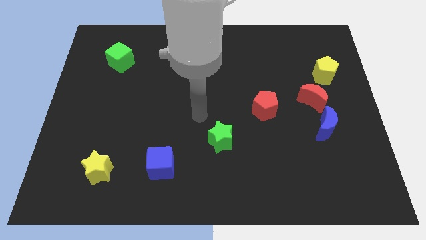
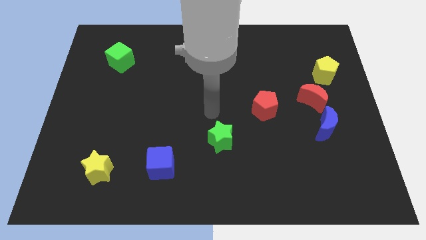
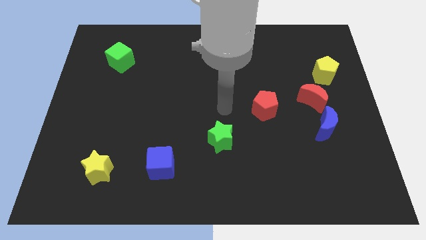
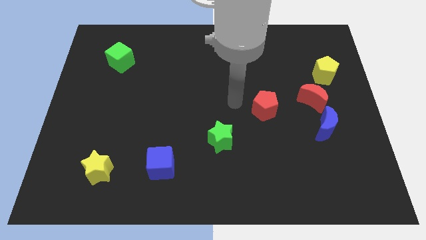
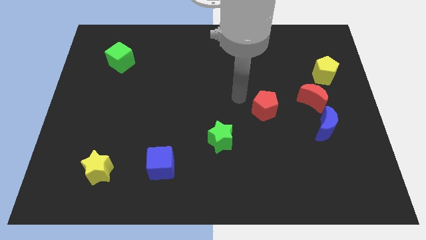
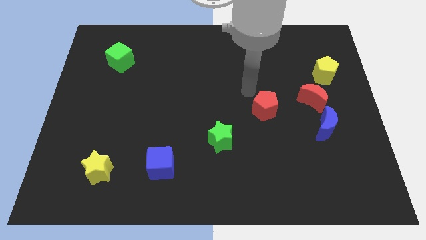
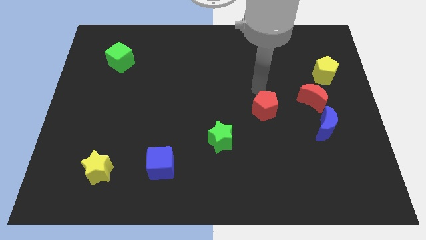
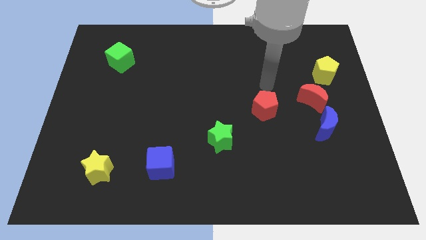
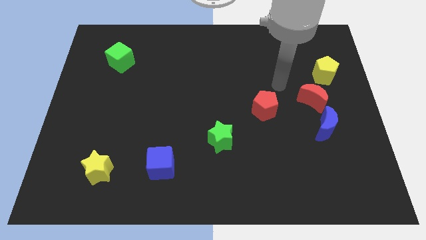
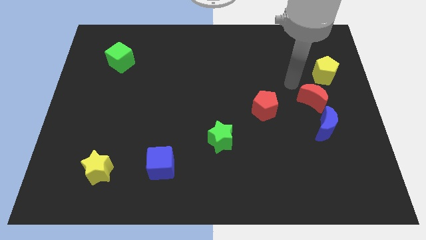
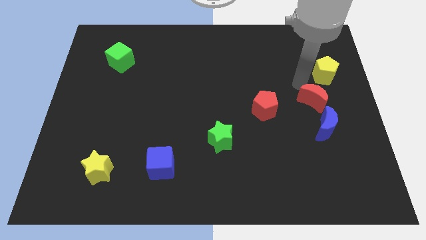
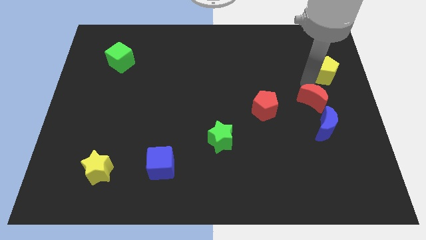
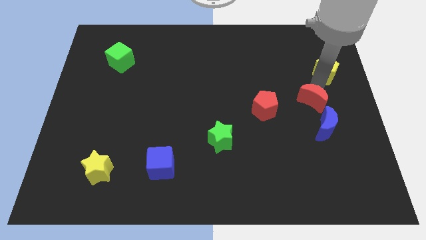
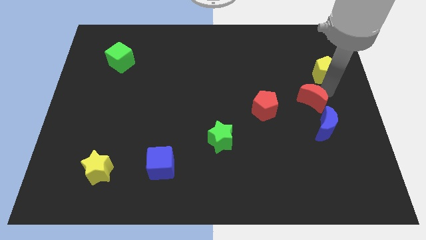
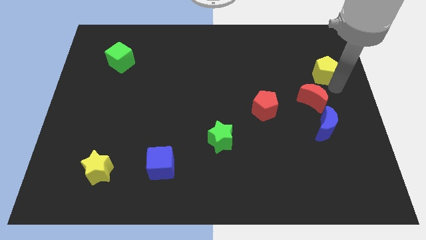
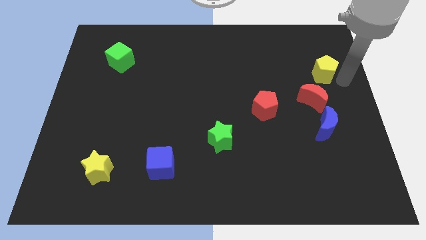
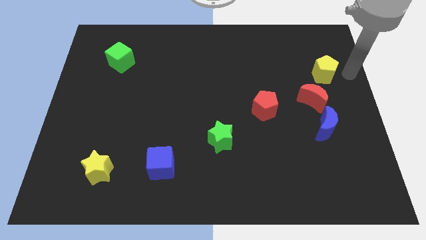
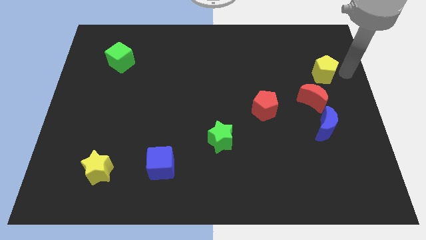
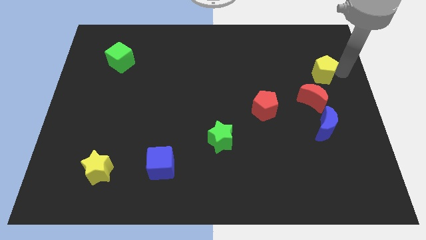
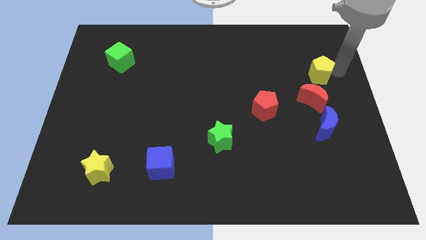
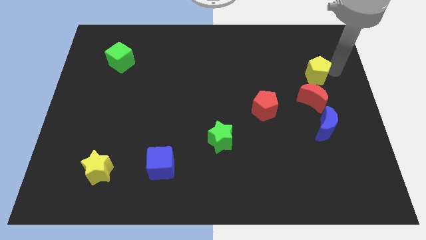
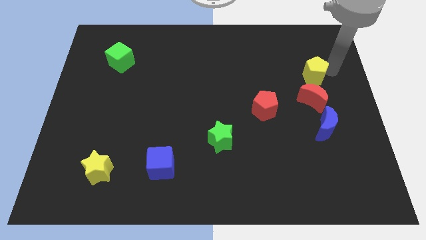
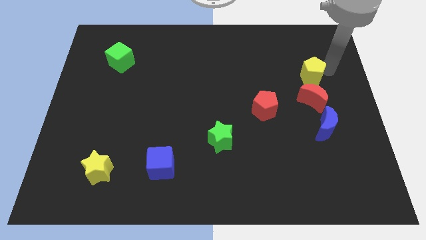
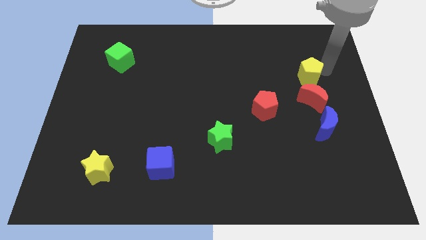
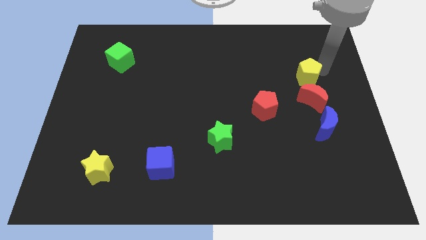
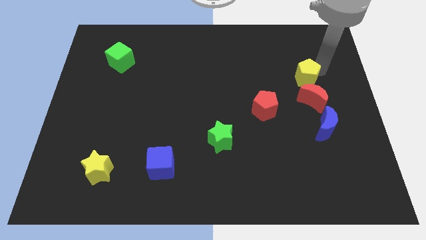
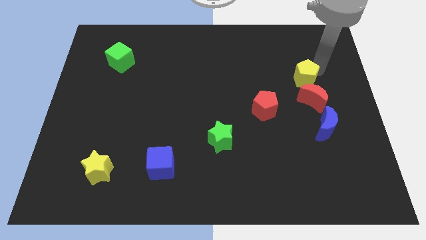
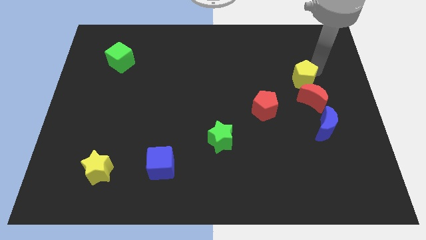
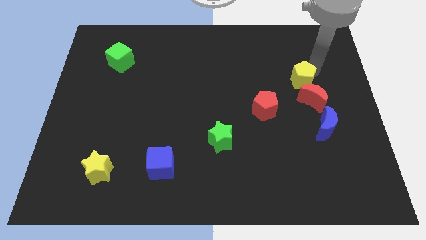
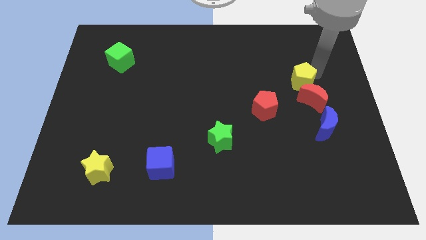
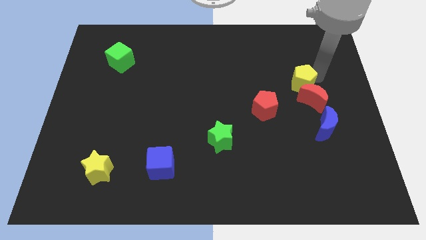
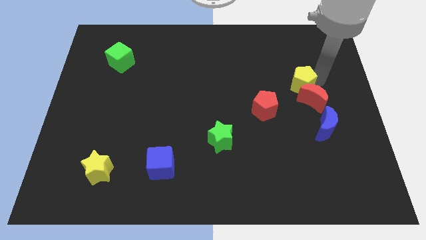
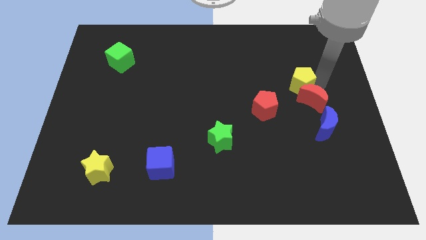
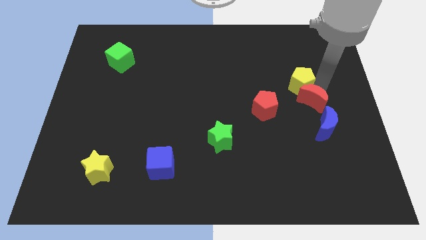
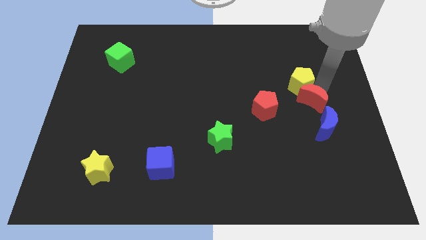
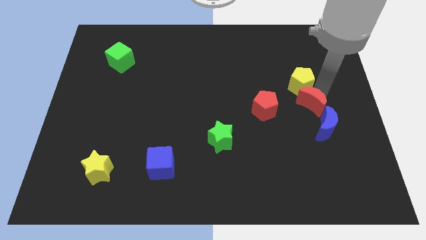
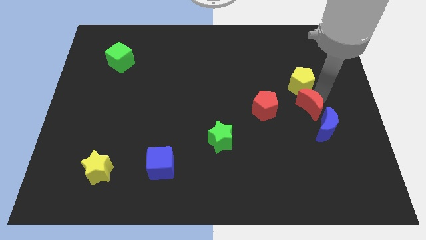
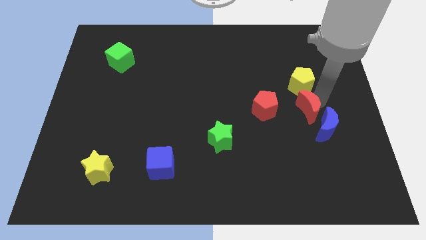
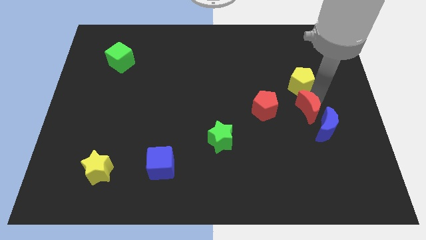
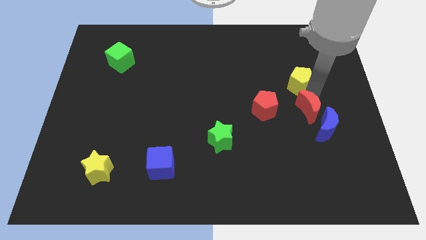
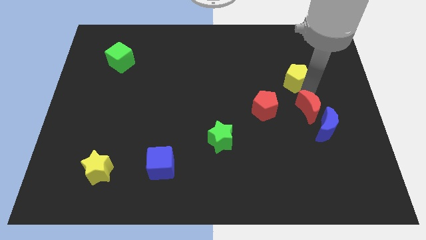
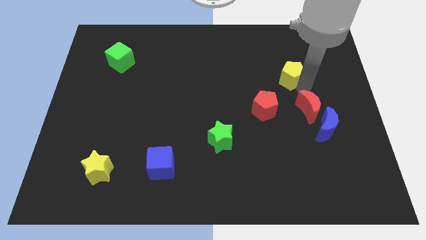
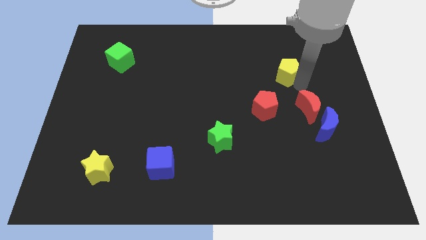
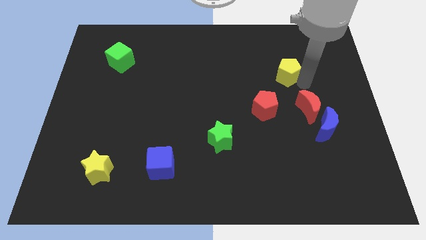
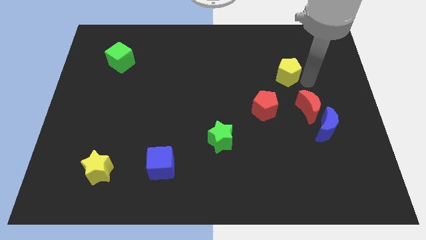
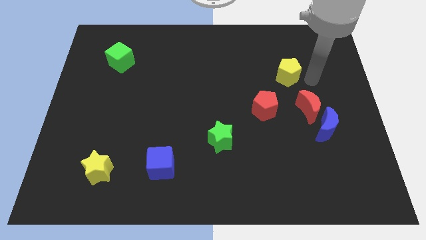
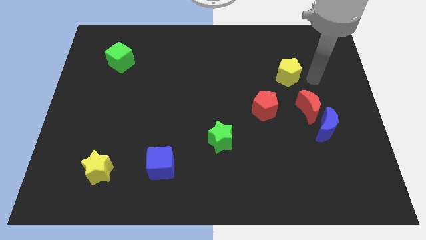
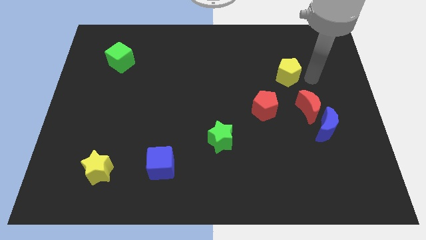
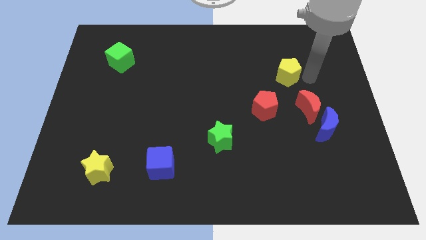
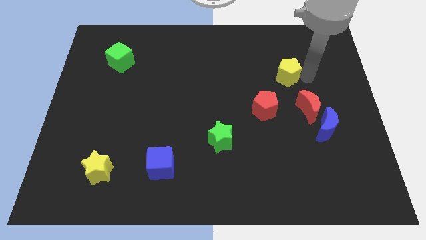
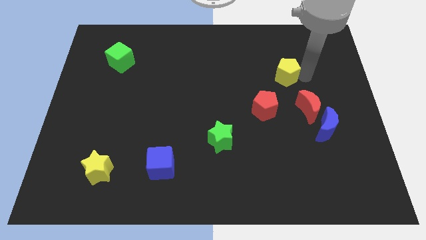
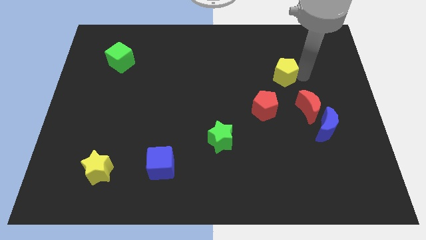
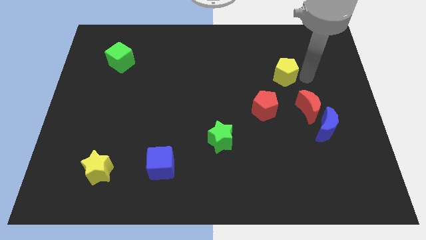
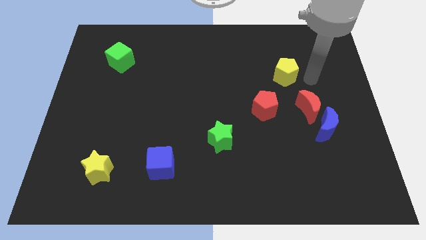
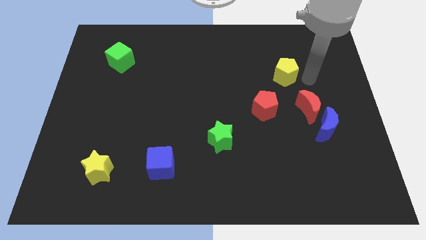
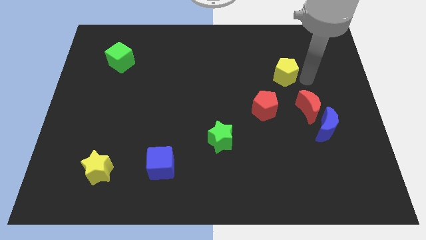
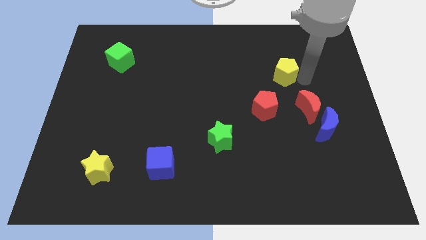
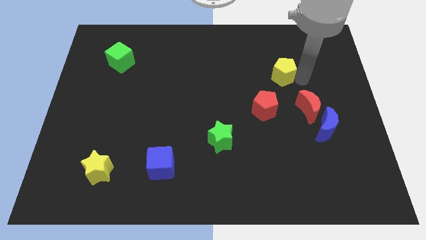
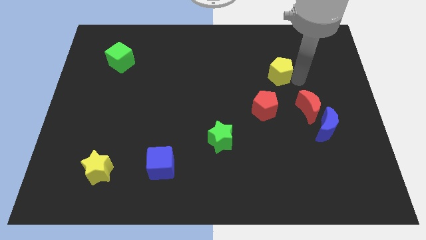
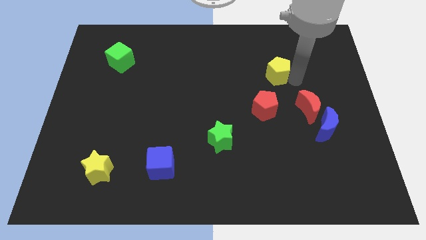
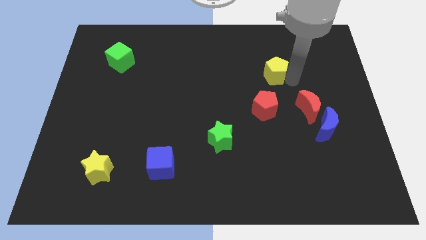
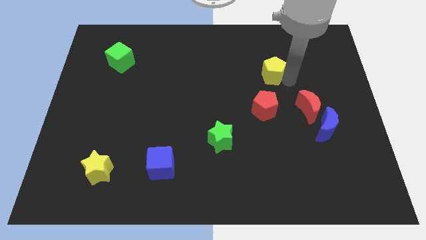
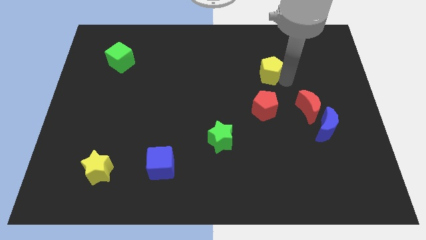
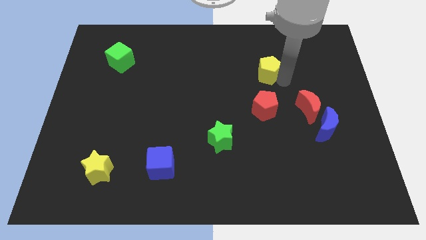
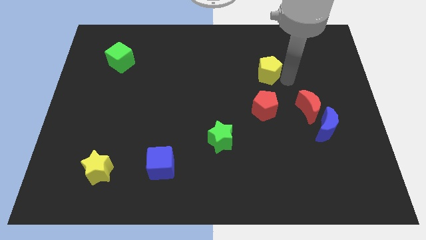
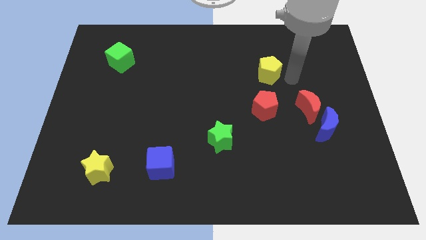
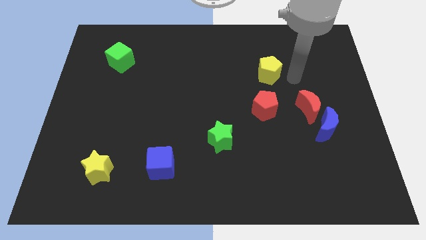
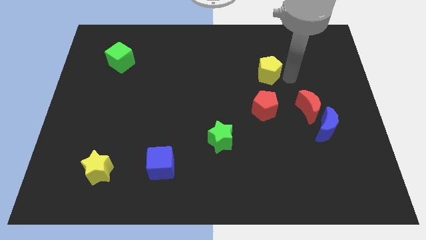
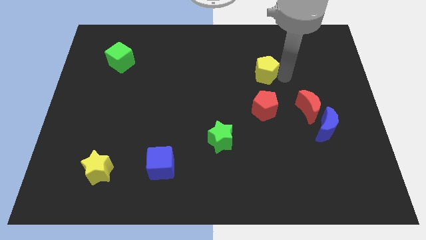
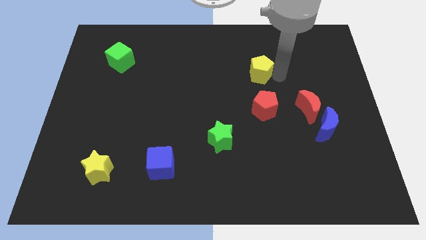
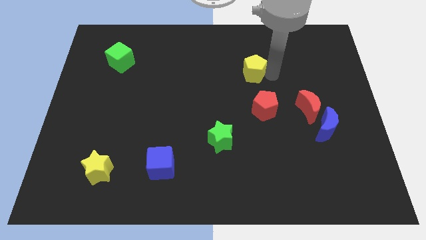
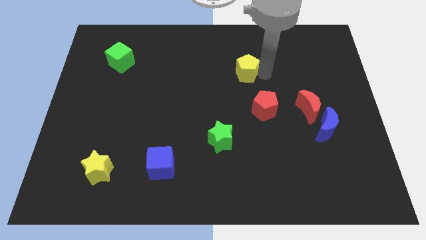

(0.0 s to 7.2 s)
move the yellow pentagon to the left

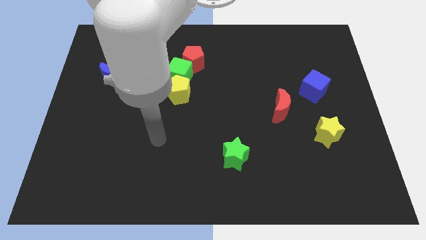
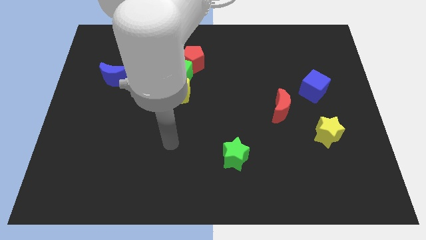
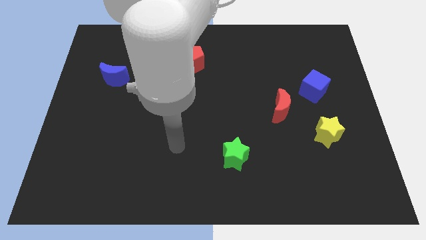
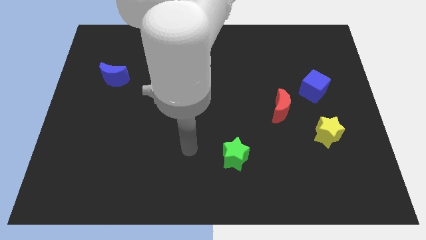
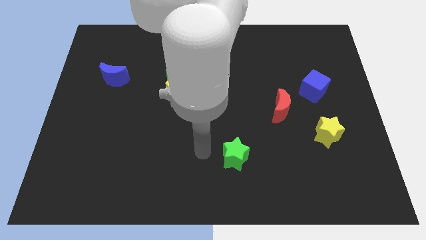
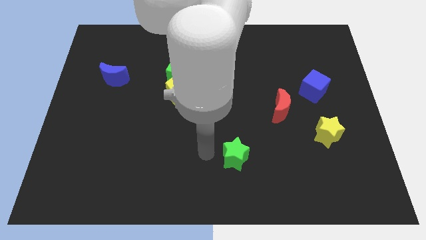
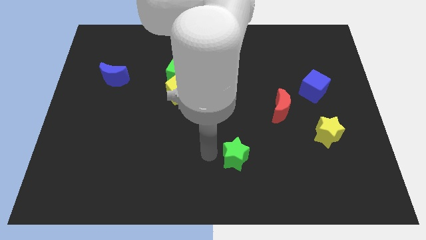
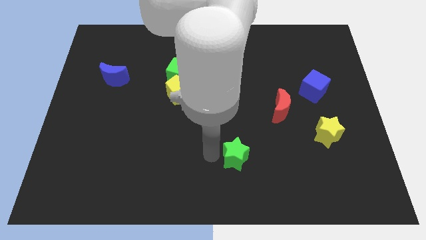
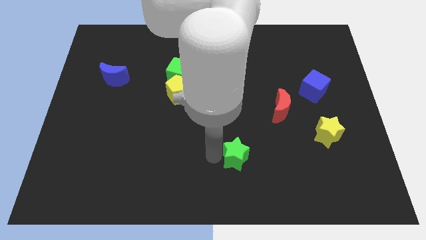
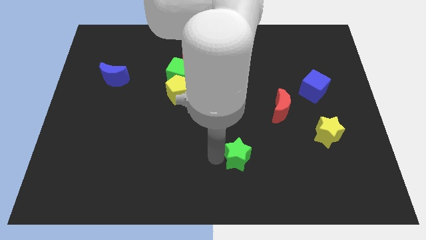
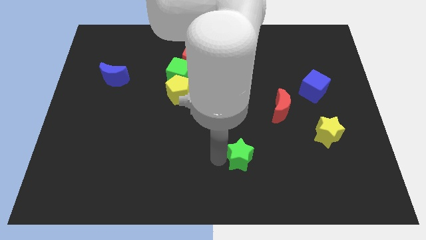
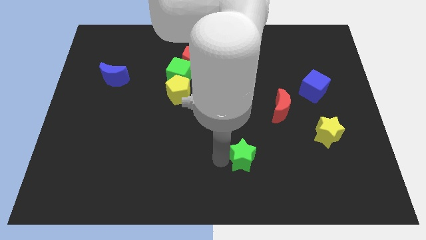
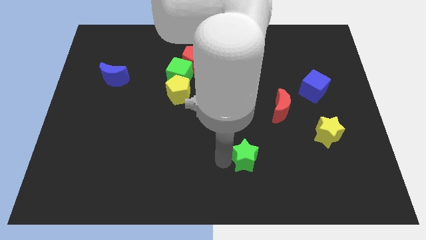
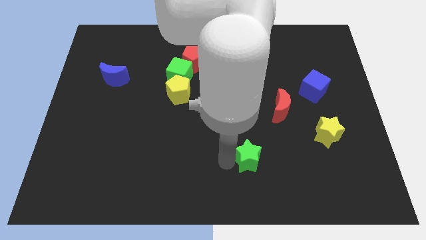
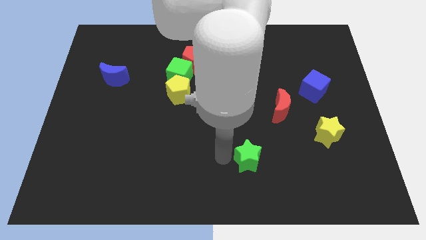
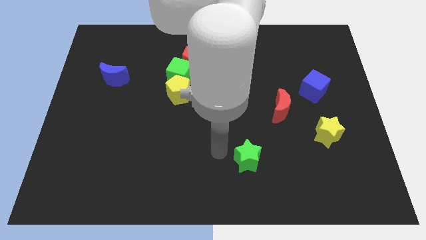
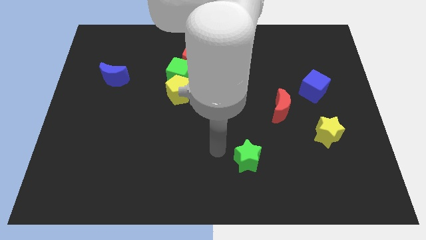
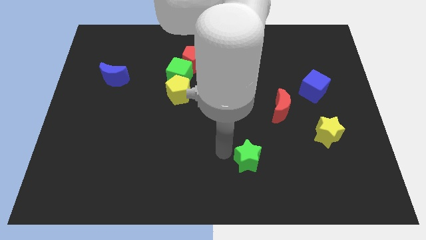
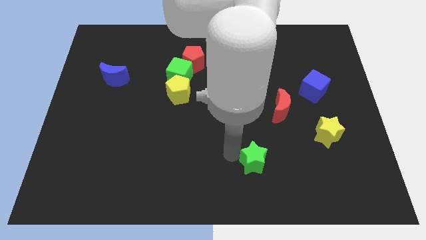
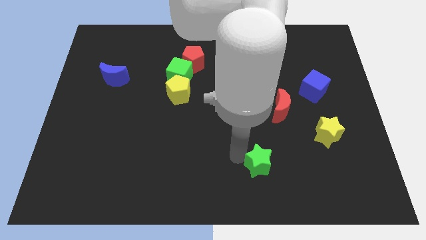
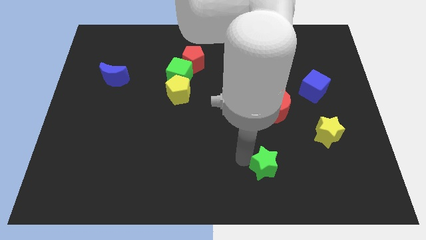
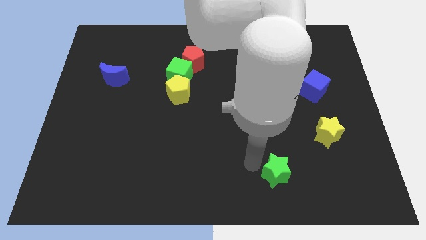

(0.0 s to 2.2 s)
slide the green star to the right a little
